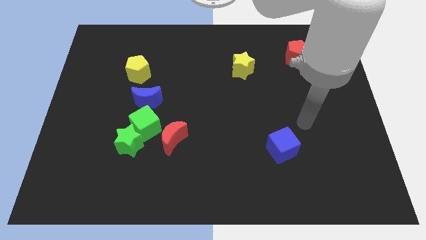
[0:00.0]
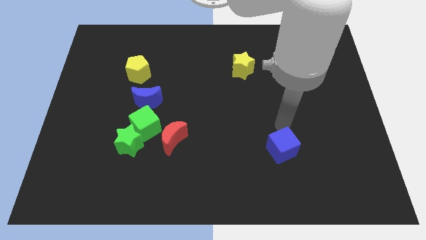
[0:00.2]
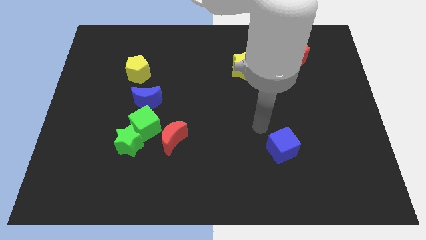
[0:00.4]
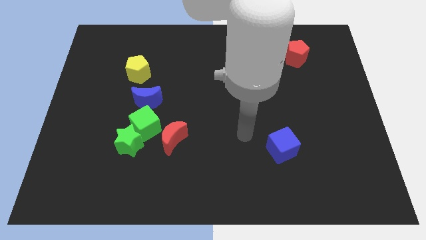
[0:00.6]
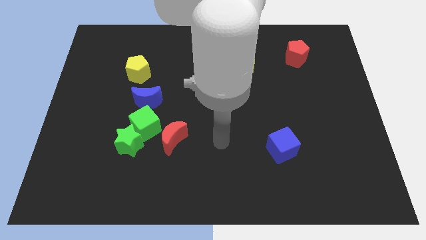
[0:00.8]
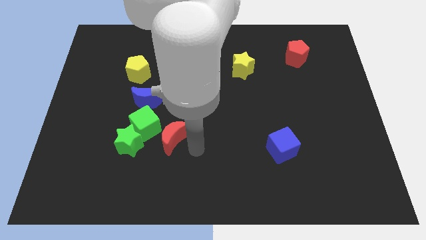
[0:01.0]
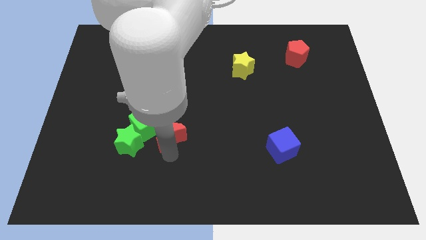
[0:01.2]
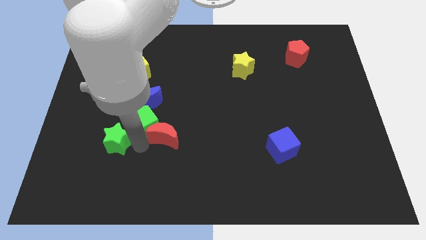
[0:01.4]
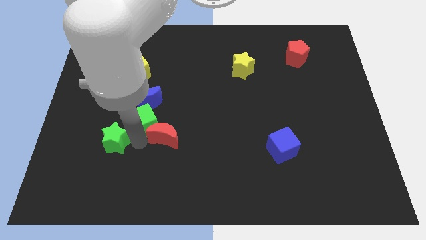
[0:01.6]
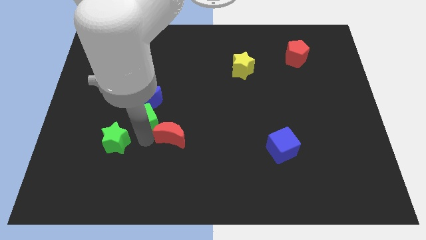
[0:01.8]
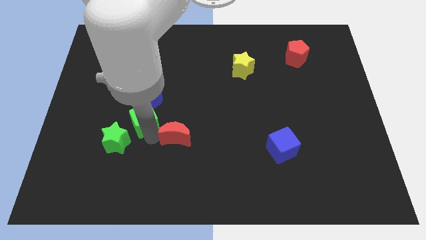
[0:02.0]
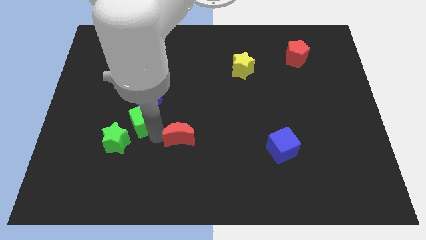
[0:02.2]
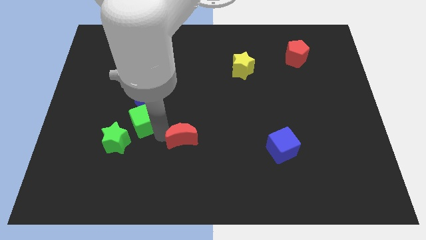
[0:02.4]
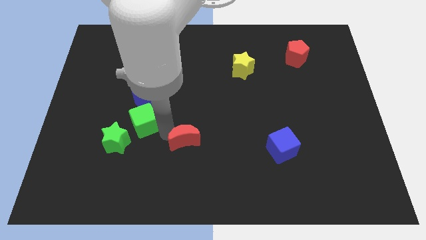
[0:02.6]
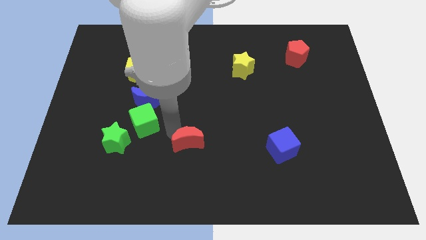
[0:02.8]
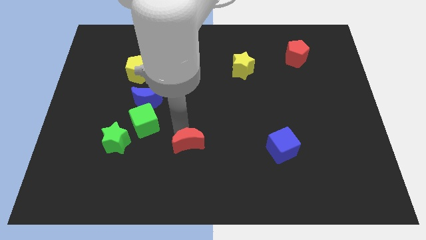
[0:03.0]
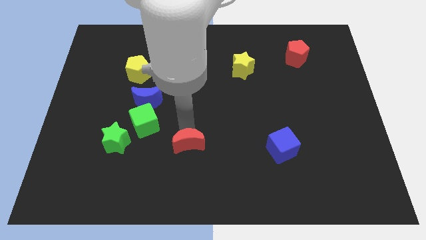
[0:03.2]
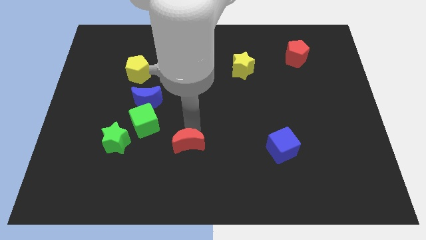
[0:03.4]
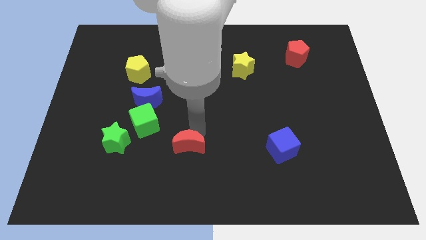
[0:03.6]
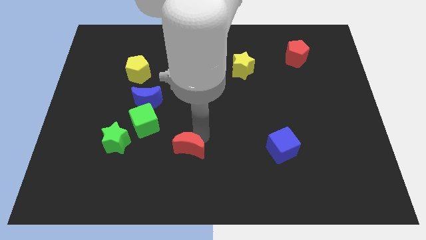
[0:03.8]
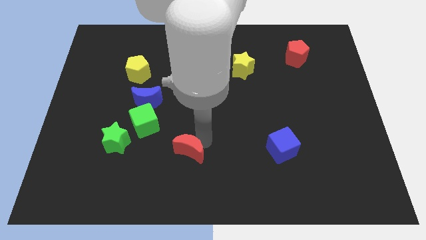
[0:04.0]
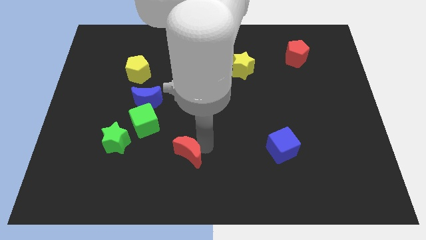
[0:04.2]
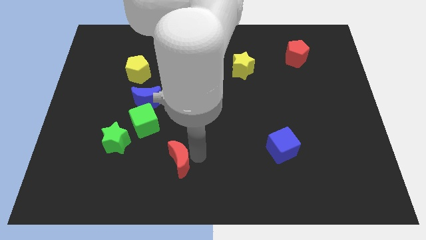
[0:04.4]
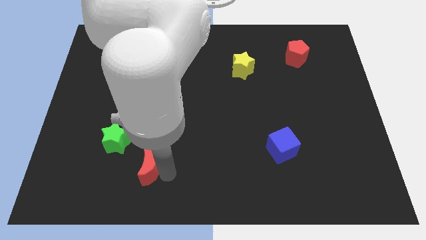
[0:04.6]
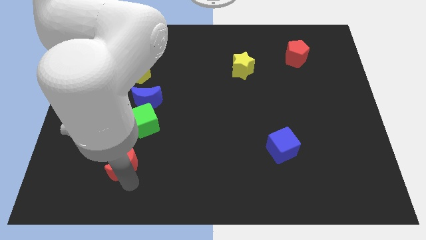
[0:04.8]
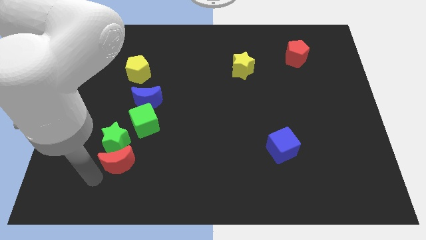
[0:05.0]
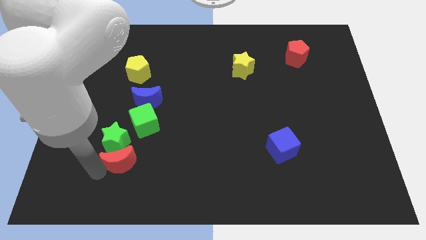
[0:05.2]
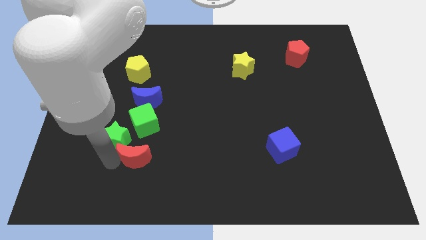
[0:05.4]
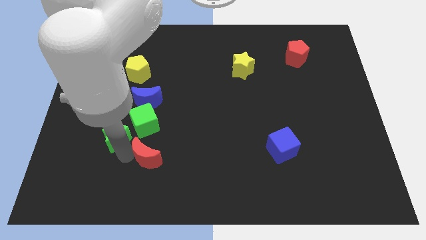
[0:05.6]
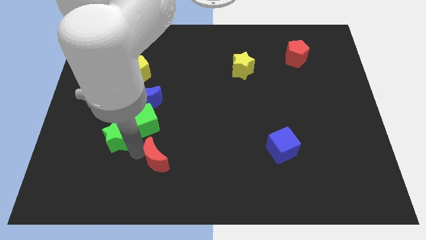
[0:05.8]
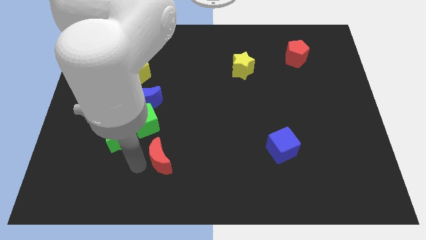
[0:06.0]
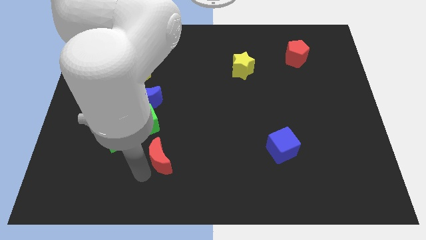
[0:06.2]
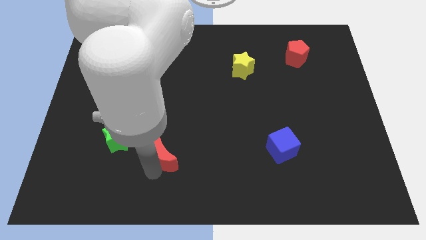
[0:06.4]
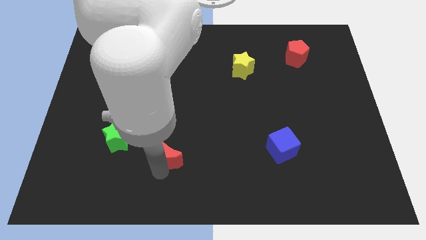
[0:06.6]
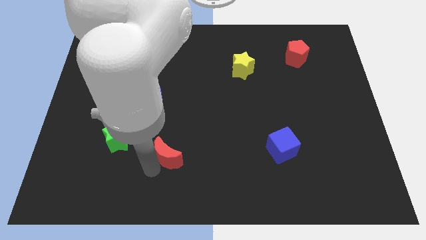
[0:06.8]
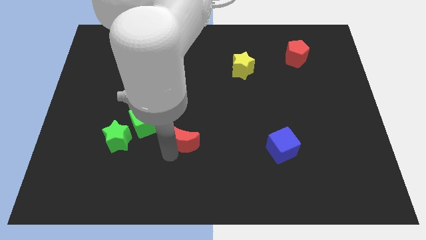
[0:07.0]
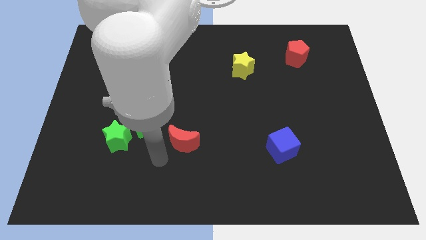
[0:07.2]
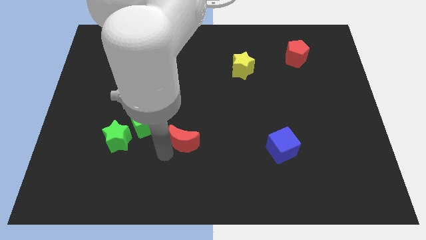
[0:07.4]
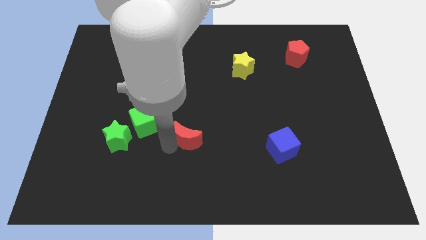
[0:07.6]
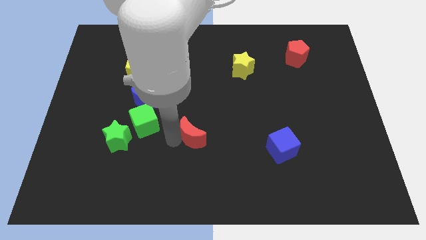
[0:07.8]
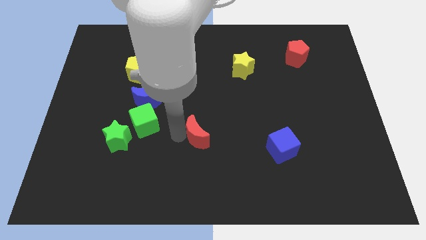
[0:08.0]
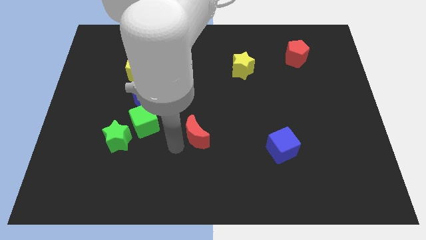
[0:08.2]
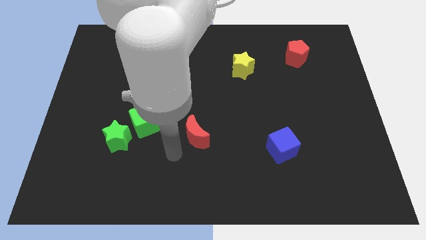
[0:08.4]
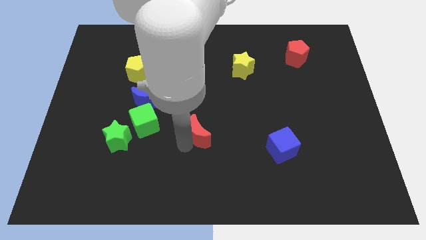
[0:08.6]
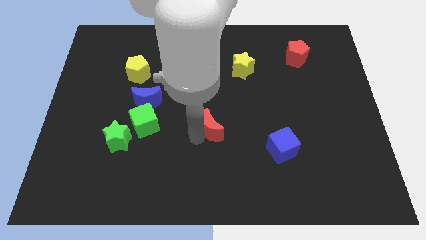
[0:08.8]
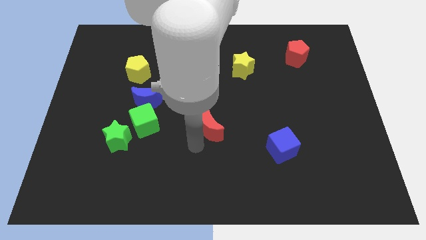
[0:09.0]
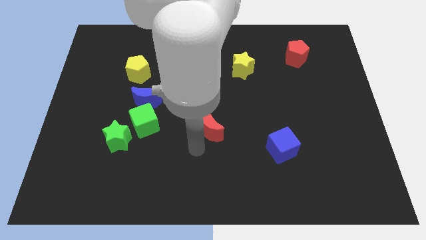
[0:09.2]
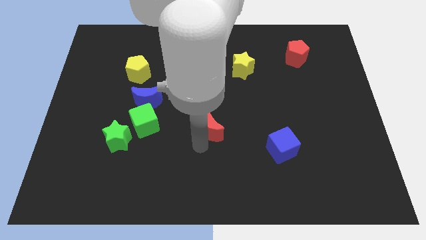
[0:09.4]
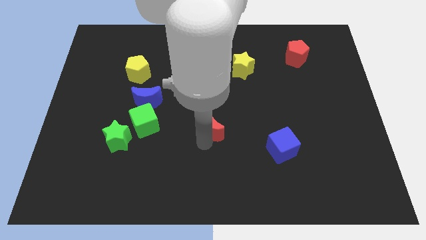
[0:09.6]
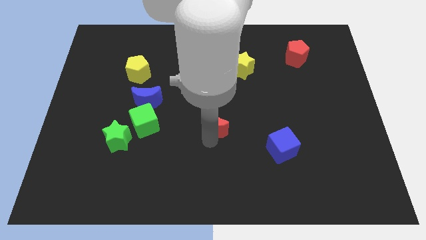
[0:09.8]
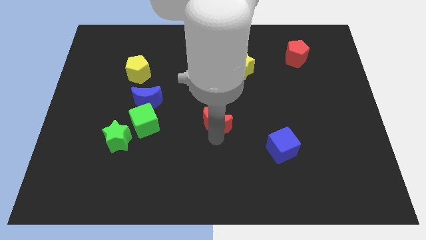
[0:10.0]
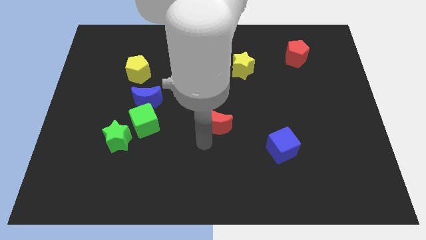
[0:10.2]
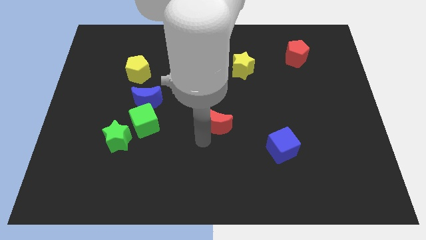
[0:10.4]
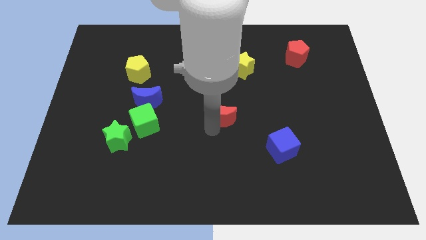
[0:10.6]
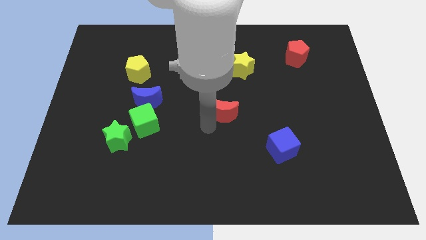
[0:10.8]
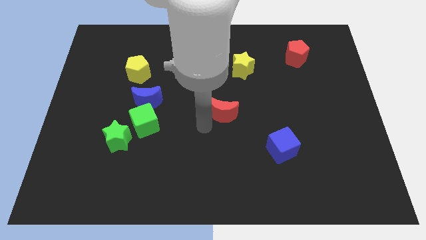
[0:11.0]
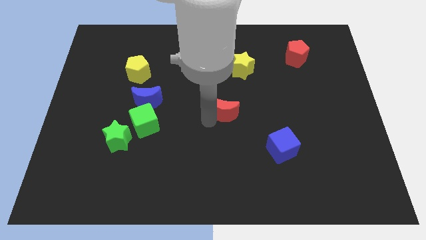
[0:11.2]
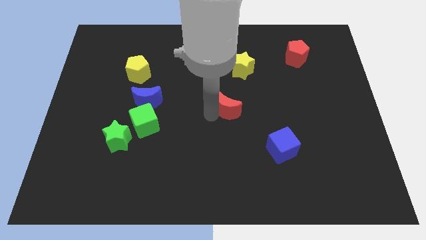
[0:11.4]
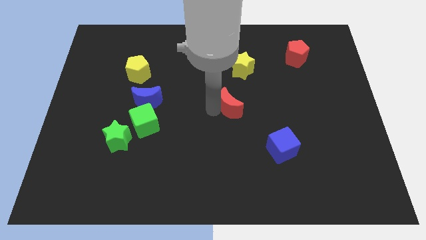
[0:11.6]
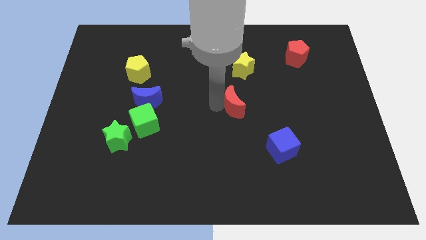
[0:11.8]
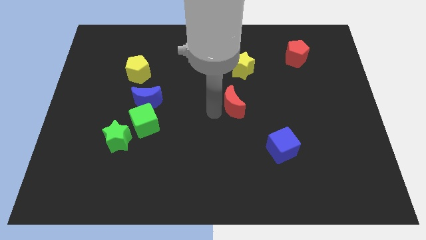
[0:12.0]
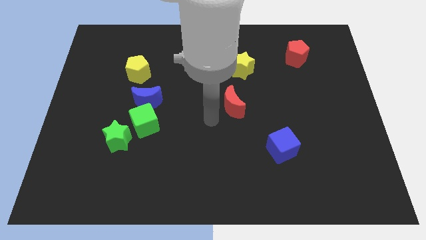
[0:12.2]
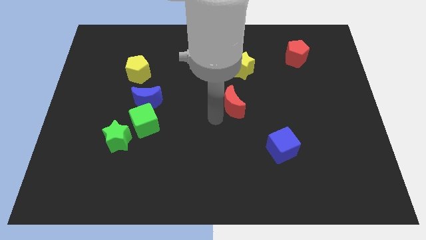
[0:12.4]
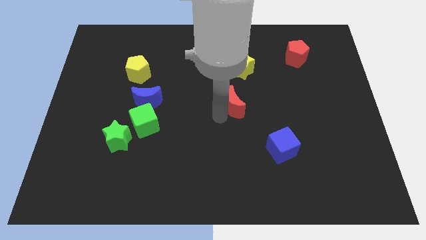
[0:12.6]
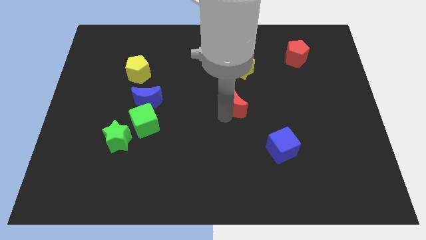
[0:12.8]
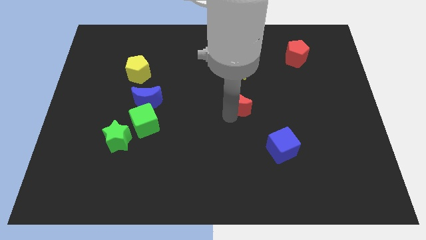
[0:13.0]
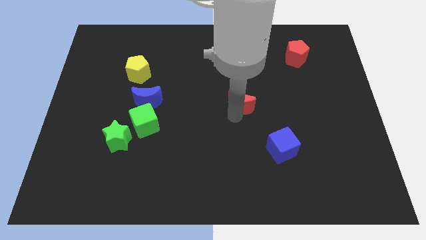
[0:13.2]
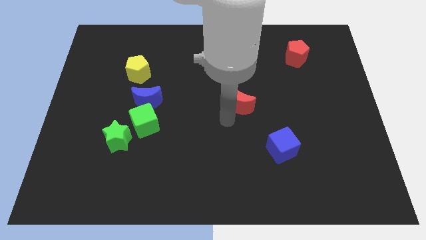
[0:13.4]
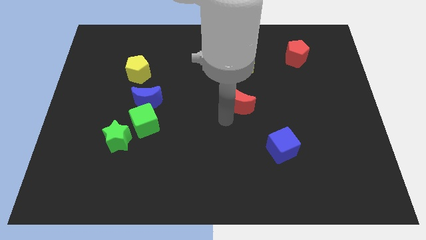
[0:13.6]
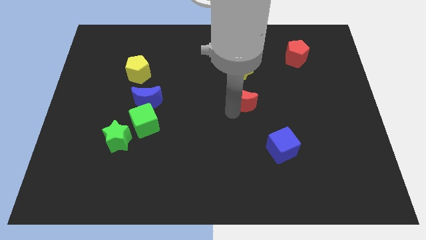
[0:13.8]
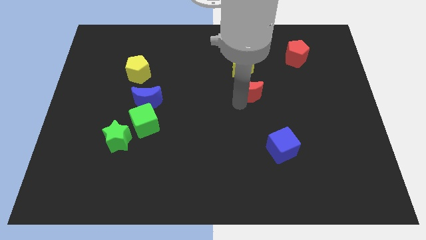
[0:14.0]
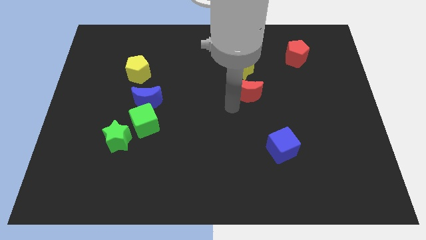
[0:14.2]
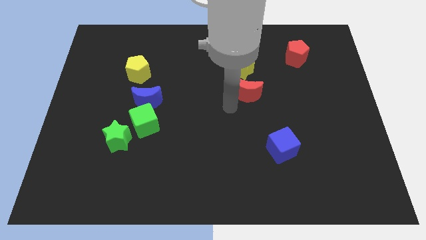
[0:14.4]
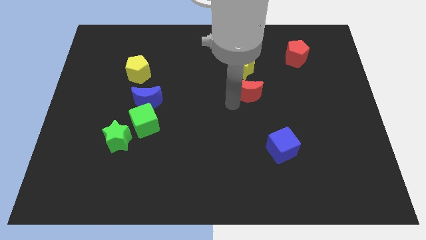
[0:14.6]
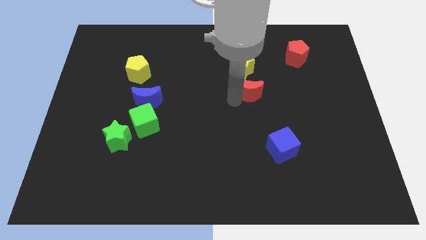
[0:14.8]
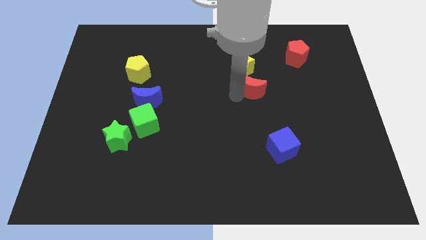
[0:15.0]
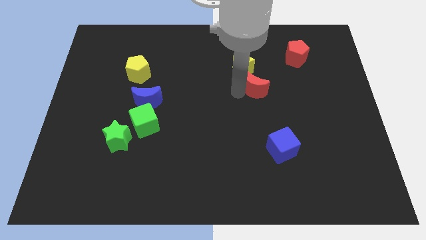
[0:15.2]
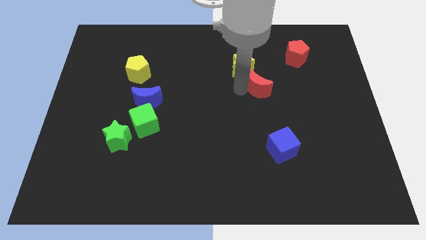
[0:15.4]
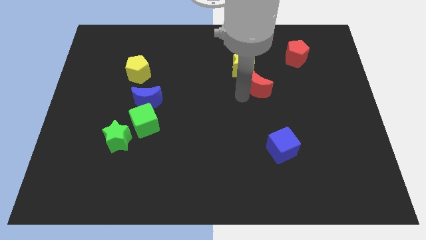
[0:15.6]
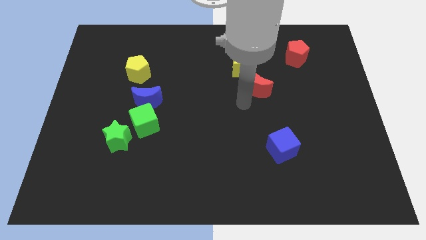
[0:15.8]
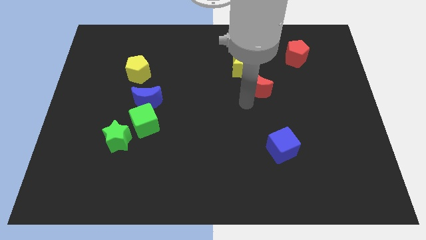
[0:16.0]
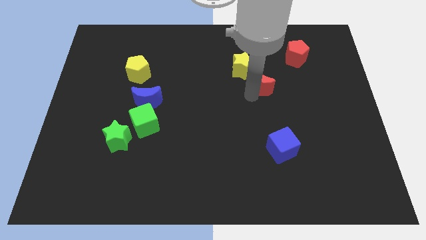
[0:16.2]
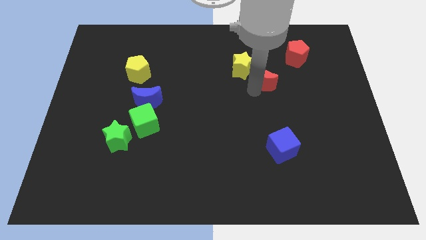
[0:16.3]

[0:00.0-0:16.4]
move the red moon to the bottom left of the red pentagon
